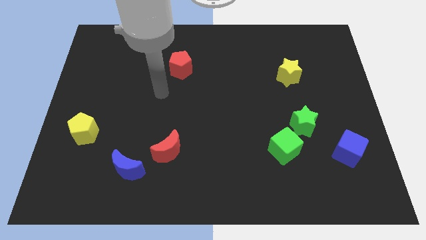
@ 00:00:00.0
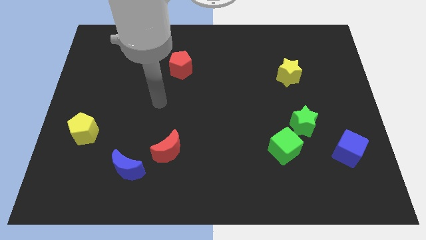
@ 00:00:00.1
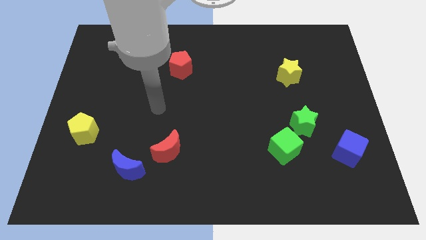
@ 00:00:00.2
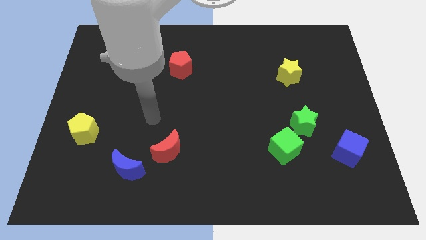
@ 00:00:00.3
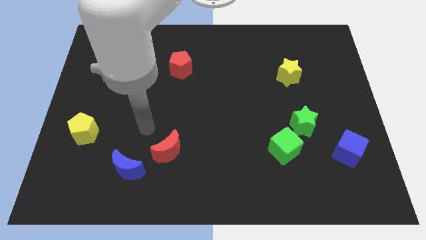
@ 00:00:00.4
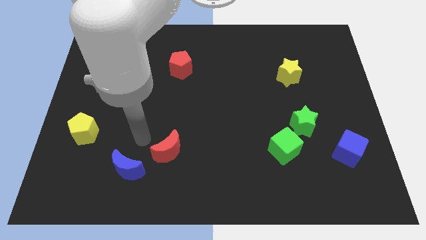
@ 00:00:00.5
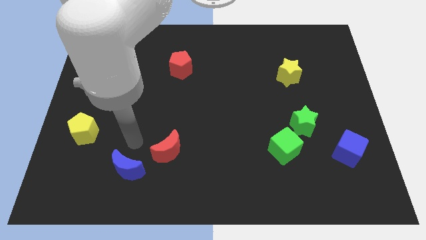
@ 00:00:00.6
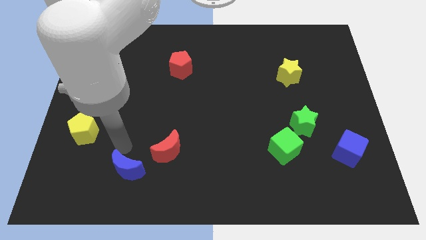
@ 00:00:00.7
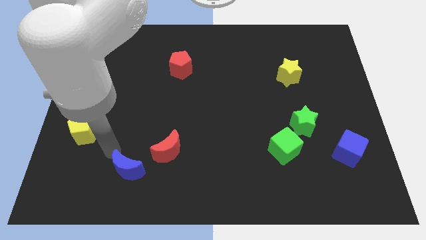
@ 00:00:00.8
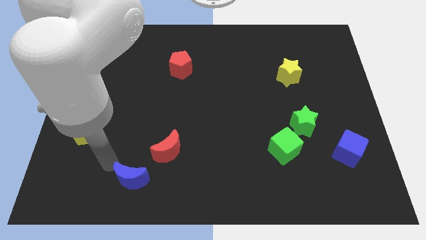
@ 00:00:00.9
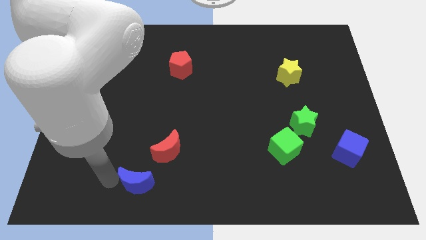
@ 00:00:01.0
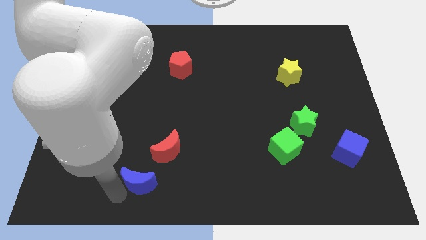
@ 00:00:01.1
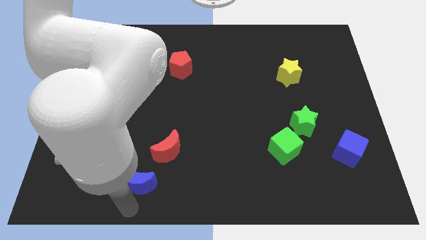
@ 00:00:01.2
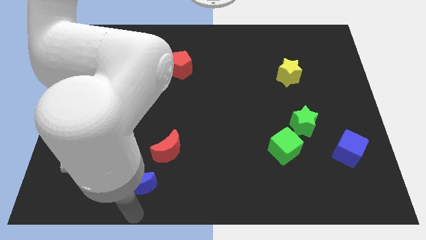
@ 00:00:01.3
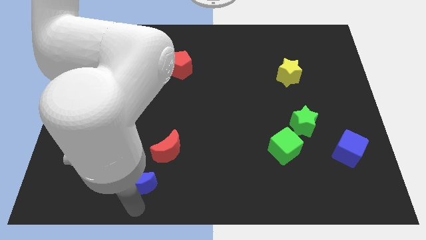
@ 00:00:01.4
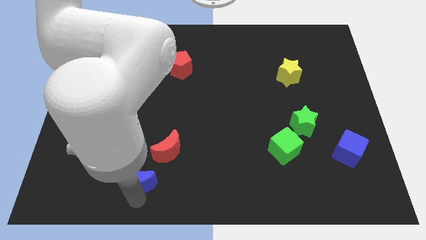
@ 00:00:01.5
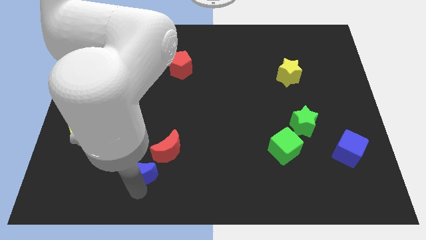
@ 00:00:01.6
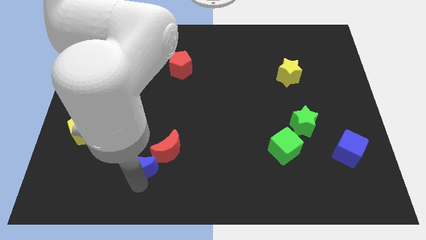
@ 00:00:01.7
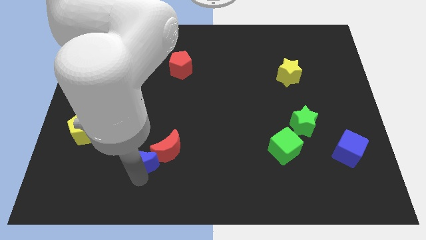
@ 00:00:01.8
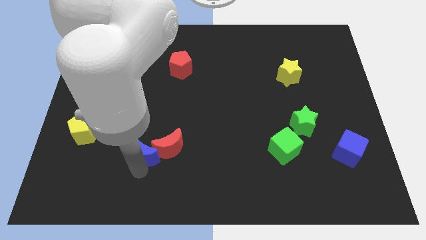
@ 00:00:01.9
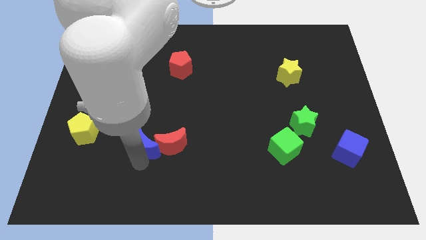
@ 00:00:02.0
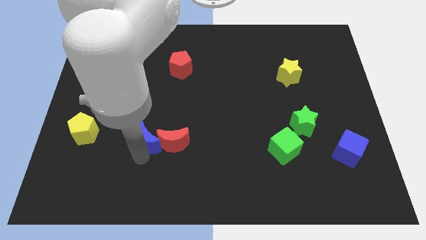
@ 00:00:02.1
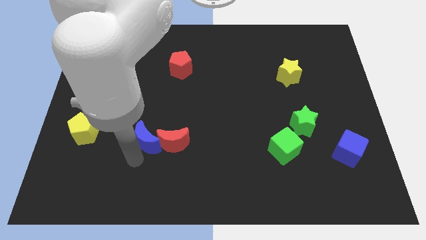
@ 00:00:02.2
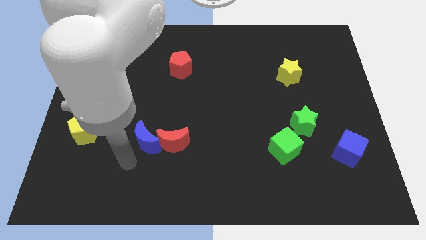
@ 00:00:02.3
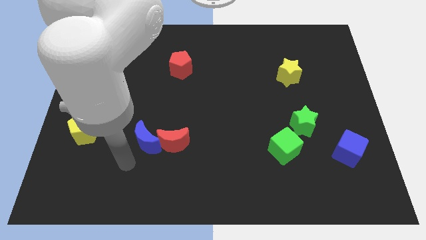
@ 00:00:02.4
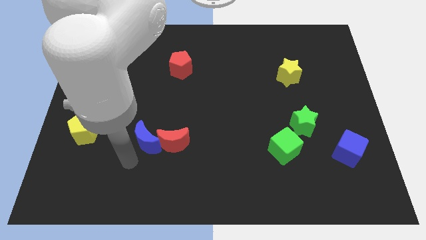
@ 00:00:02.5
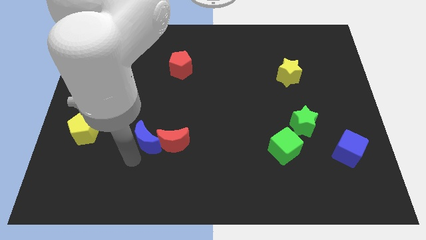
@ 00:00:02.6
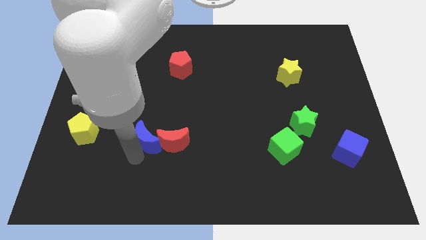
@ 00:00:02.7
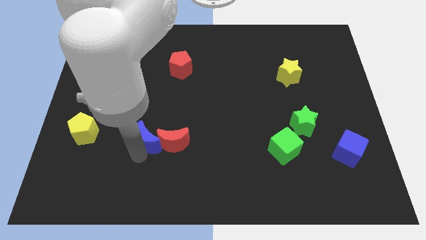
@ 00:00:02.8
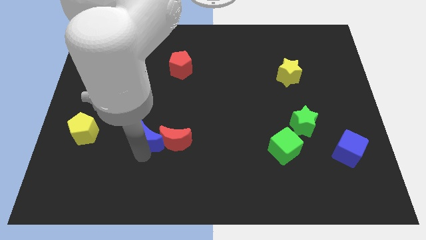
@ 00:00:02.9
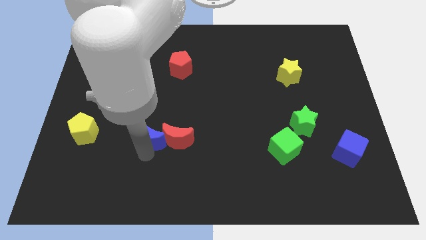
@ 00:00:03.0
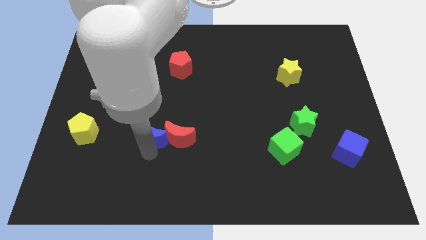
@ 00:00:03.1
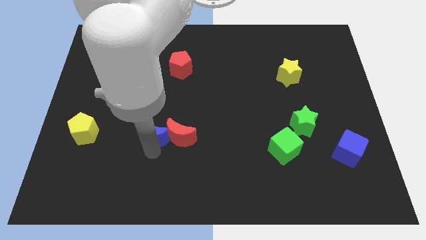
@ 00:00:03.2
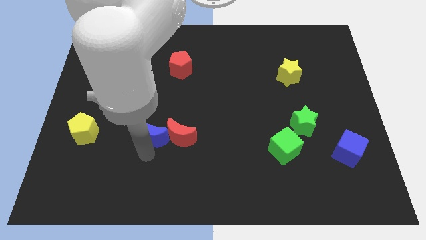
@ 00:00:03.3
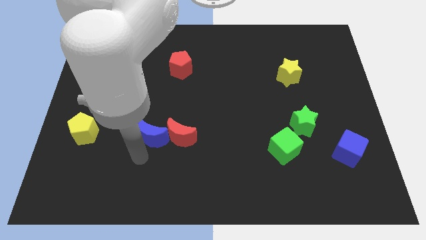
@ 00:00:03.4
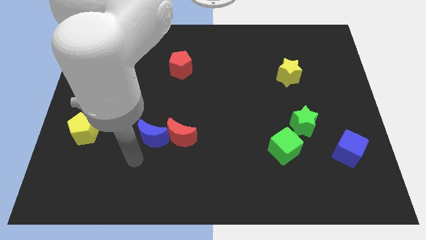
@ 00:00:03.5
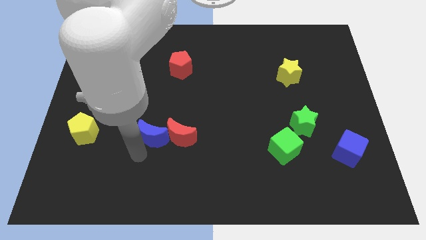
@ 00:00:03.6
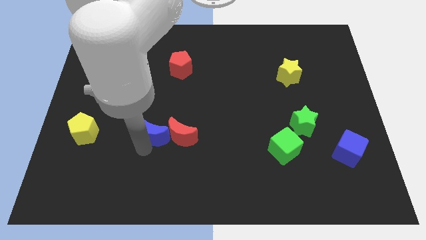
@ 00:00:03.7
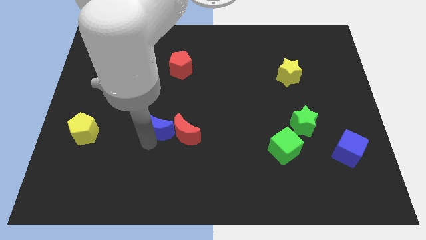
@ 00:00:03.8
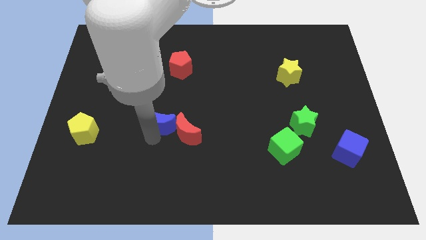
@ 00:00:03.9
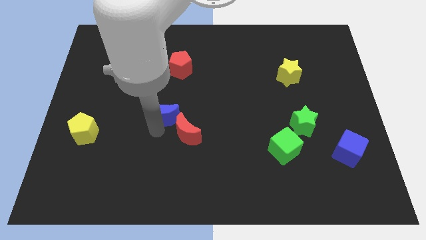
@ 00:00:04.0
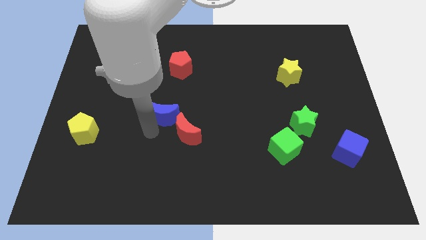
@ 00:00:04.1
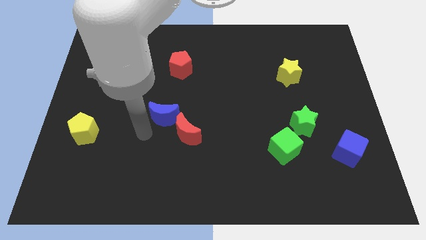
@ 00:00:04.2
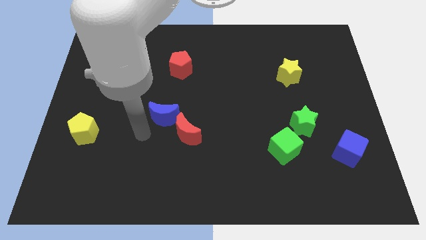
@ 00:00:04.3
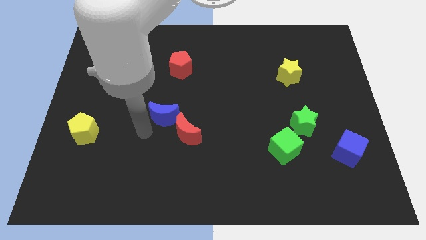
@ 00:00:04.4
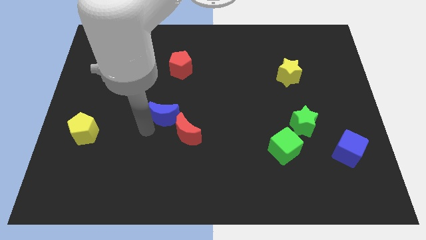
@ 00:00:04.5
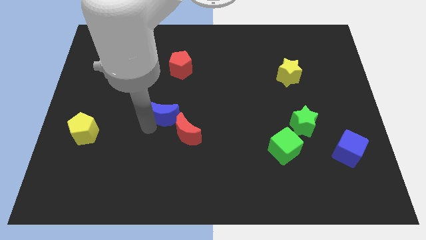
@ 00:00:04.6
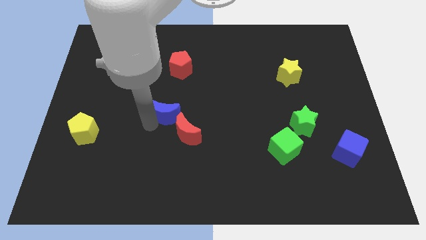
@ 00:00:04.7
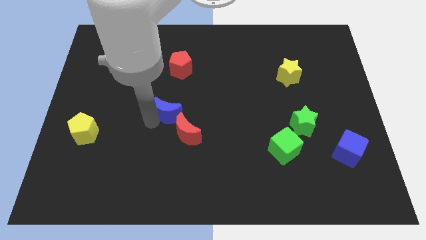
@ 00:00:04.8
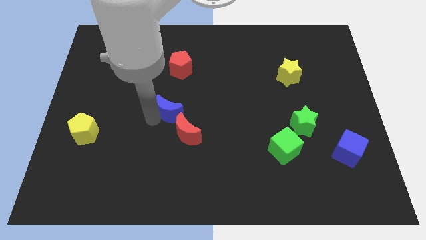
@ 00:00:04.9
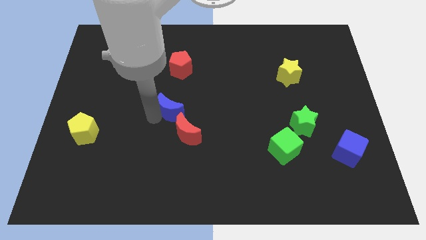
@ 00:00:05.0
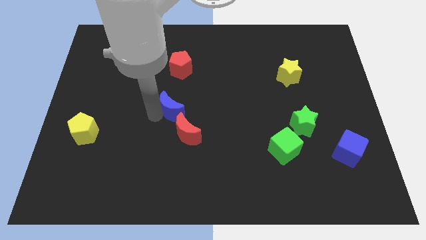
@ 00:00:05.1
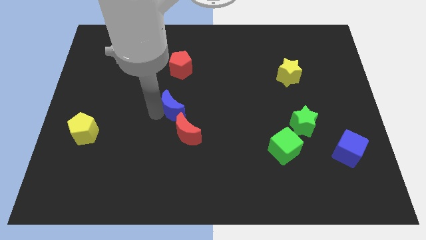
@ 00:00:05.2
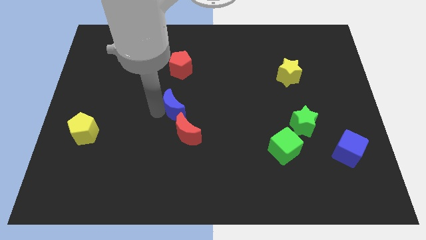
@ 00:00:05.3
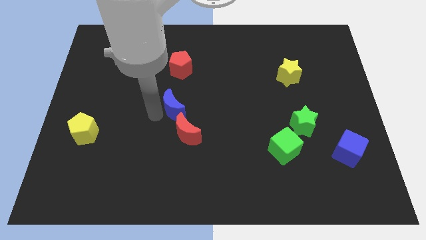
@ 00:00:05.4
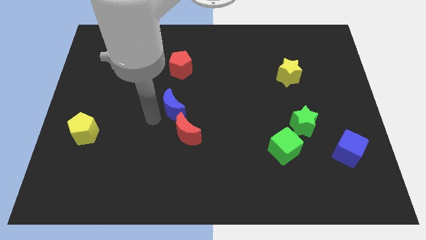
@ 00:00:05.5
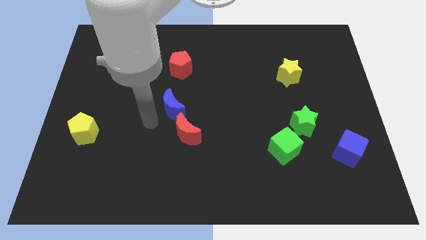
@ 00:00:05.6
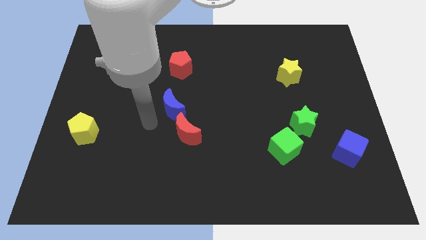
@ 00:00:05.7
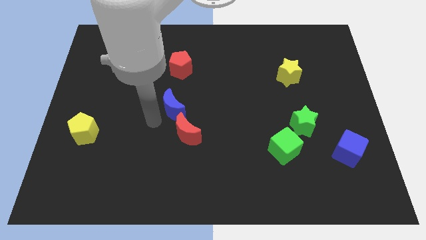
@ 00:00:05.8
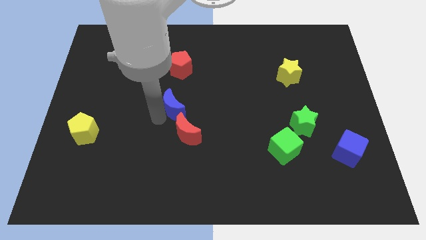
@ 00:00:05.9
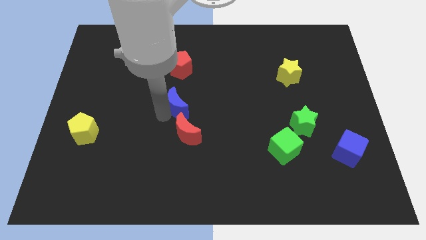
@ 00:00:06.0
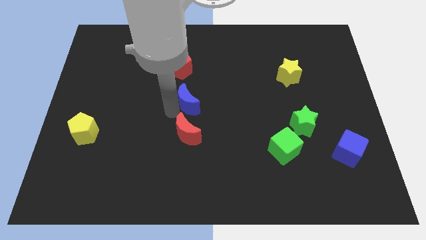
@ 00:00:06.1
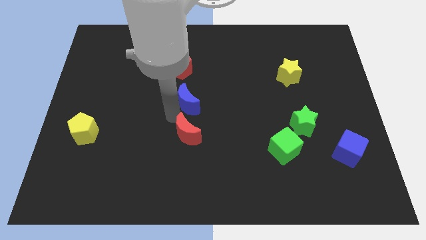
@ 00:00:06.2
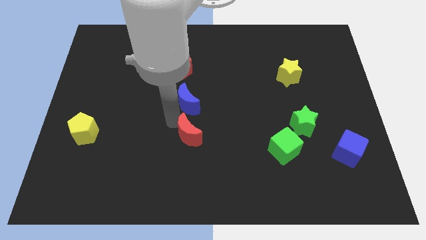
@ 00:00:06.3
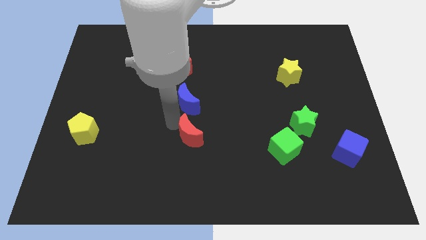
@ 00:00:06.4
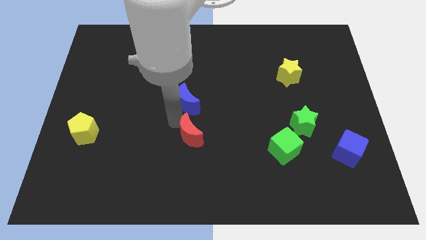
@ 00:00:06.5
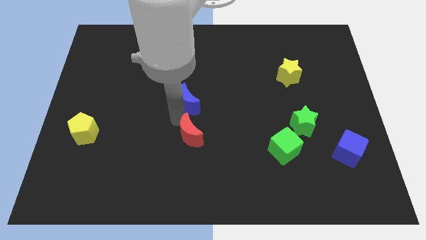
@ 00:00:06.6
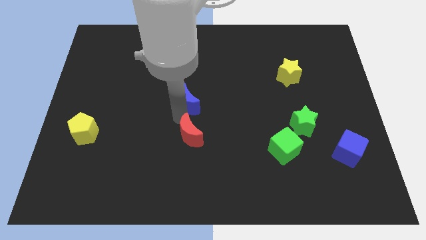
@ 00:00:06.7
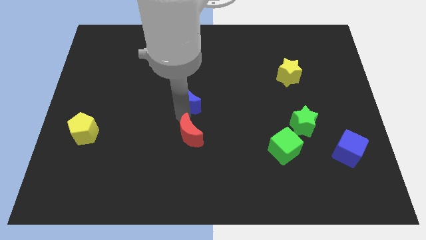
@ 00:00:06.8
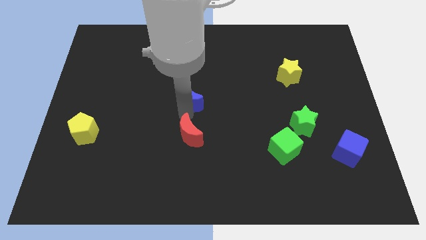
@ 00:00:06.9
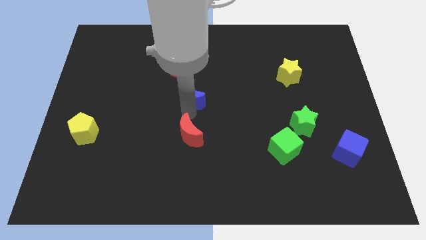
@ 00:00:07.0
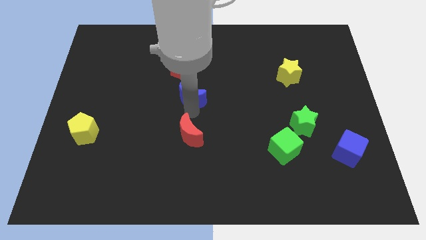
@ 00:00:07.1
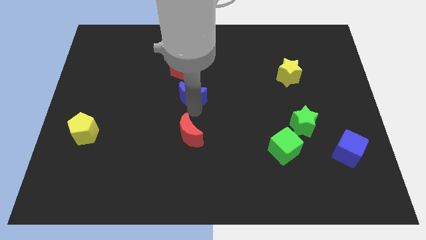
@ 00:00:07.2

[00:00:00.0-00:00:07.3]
move the blue moon to the bottom right of the red pentagon
